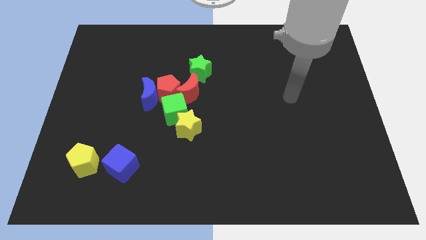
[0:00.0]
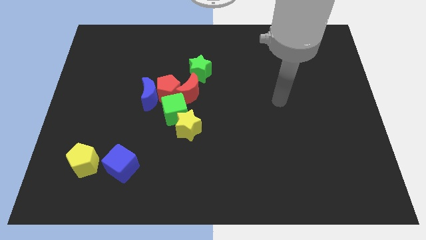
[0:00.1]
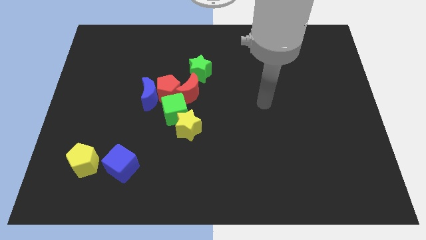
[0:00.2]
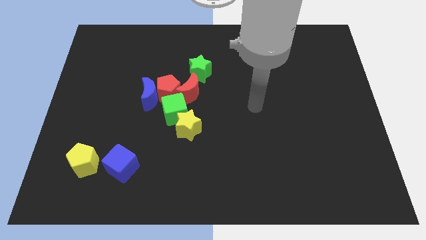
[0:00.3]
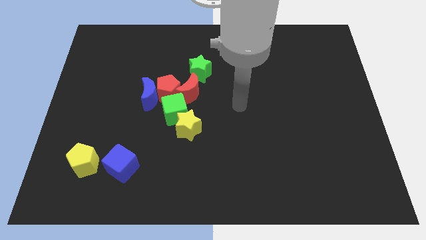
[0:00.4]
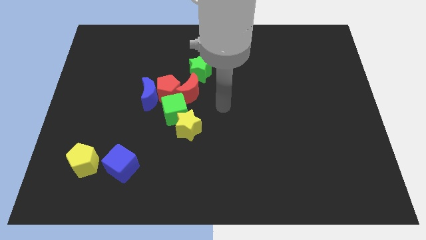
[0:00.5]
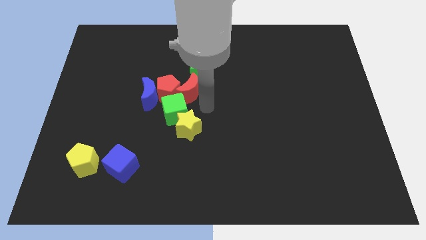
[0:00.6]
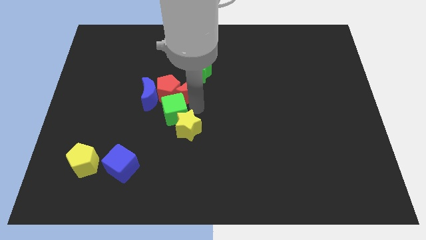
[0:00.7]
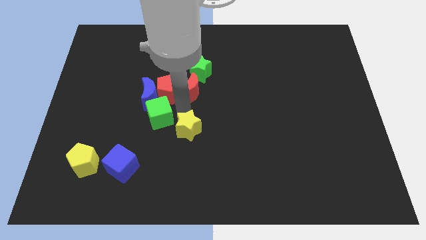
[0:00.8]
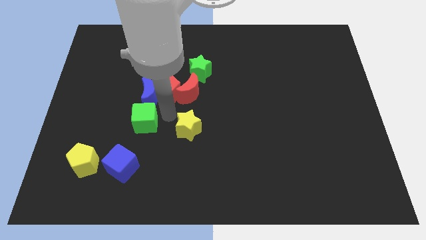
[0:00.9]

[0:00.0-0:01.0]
separate the yellow star from the green cube

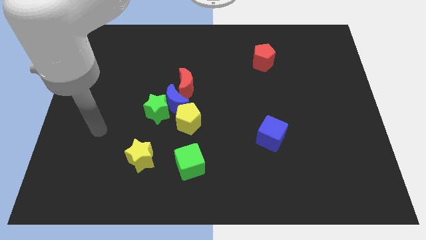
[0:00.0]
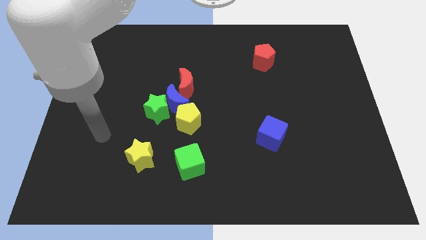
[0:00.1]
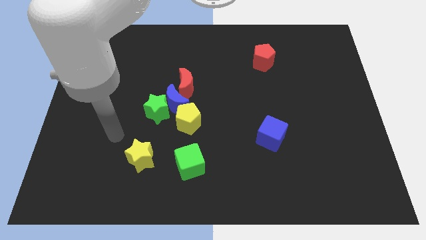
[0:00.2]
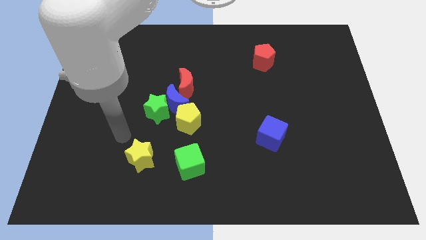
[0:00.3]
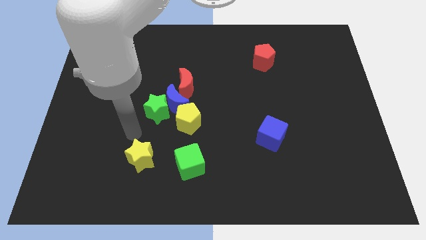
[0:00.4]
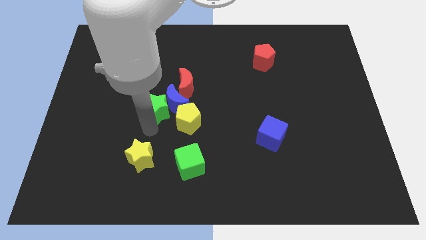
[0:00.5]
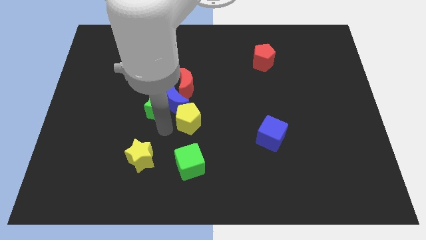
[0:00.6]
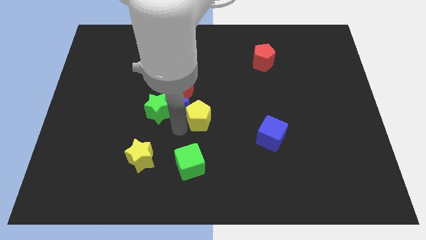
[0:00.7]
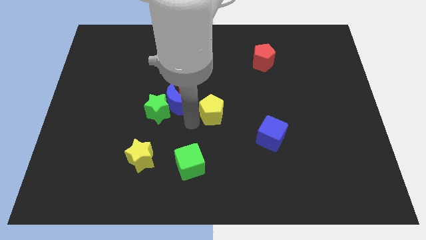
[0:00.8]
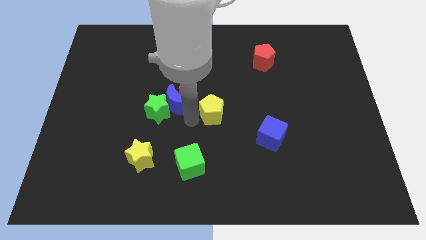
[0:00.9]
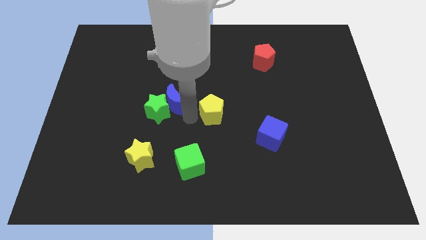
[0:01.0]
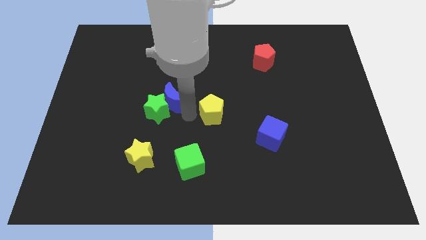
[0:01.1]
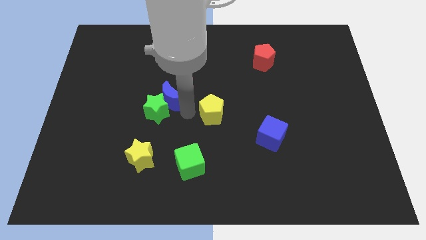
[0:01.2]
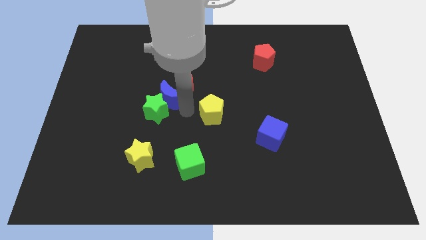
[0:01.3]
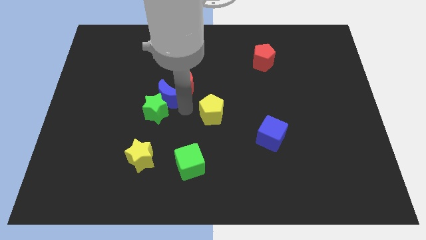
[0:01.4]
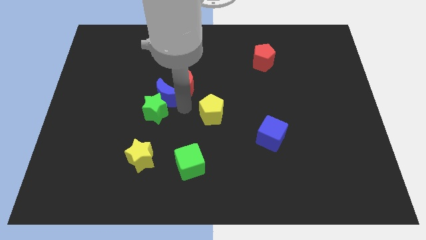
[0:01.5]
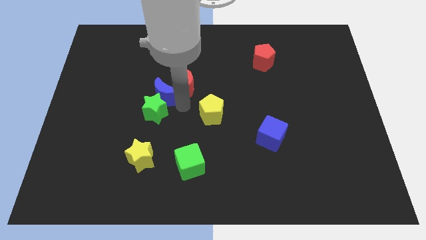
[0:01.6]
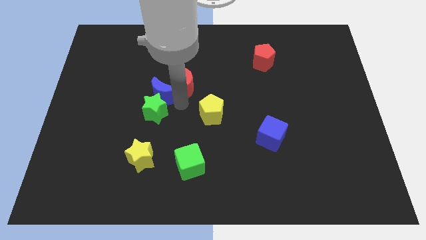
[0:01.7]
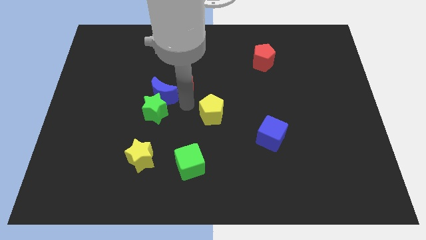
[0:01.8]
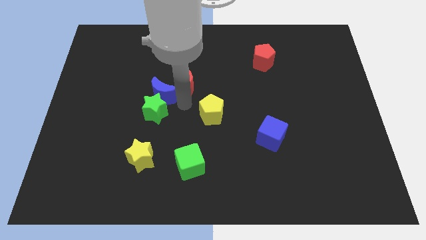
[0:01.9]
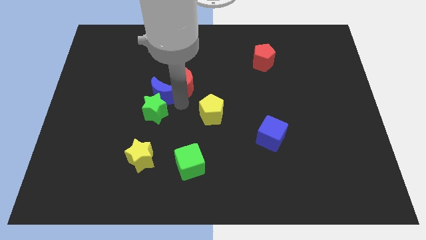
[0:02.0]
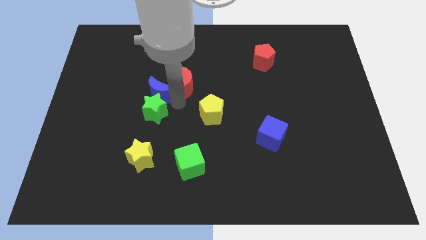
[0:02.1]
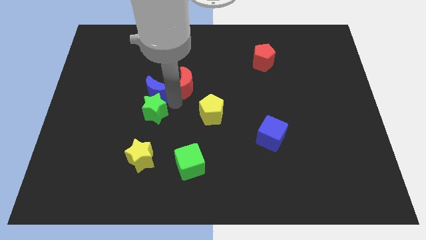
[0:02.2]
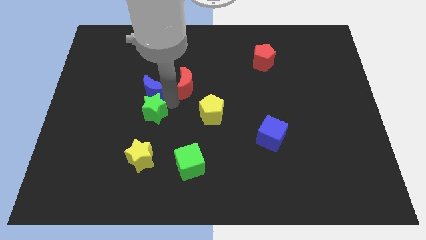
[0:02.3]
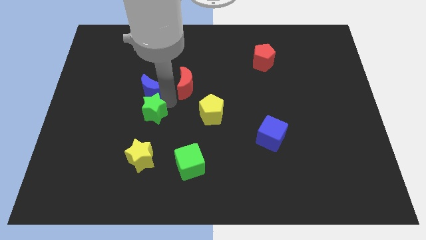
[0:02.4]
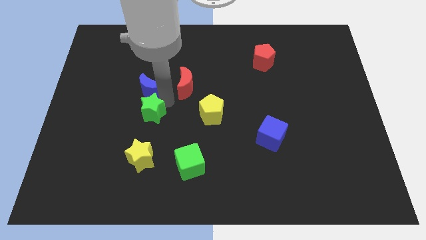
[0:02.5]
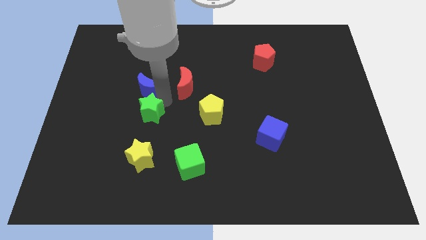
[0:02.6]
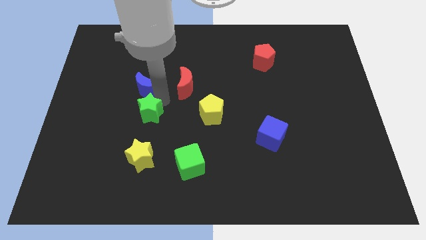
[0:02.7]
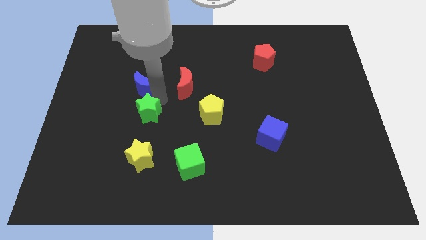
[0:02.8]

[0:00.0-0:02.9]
move the blue moon away from the clump

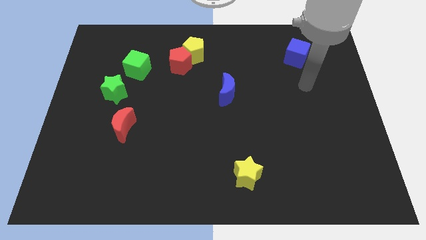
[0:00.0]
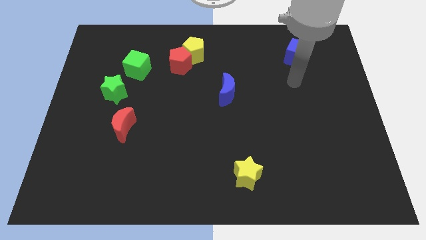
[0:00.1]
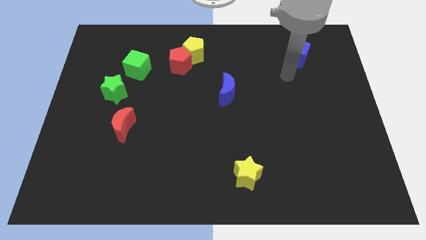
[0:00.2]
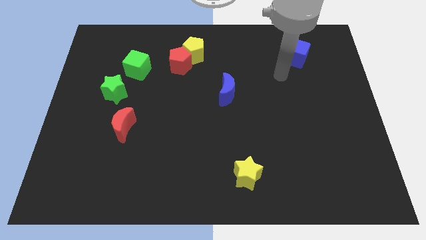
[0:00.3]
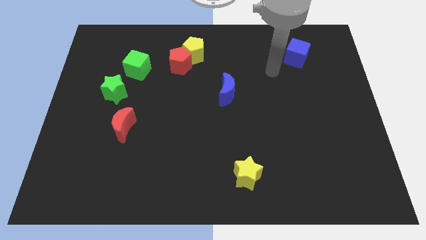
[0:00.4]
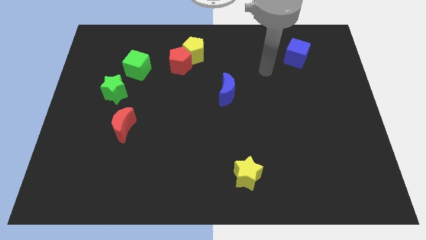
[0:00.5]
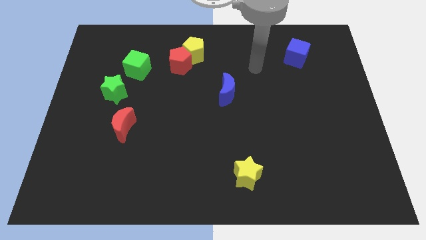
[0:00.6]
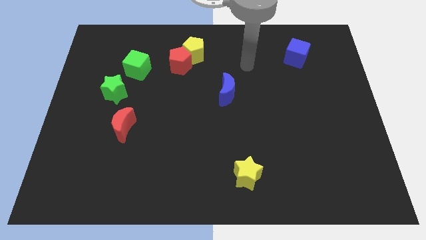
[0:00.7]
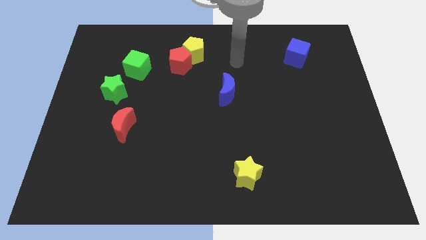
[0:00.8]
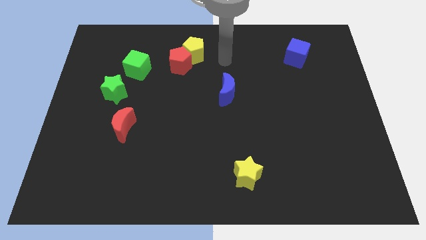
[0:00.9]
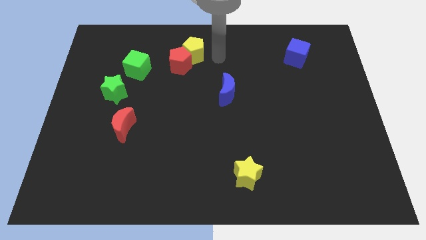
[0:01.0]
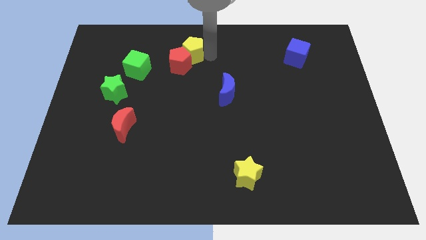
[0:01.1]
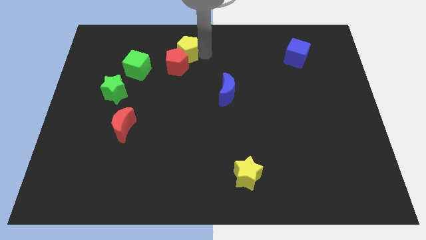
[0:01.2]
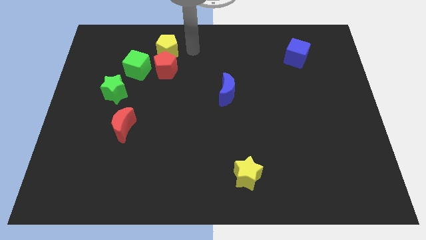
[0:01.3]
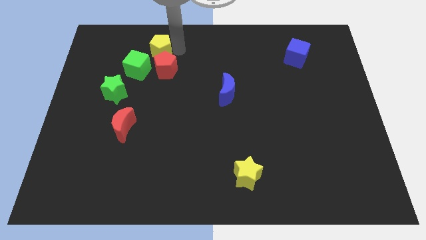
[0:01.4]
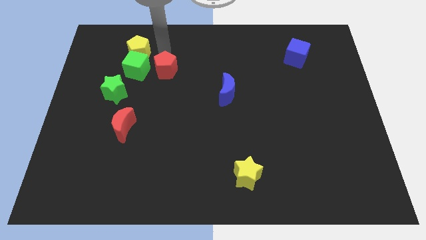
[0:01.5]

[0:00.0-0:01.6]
pull the red pentagon apart from the yellow pentagon

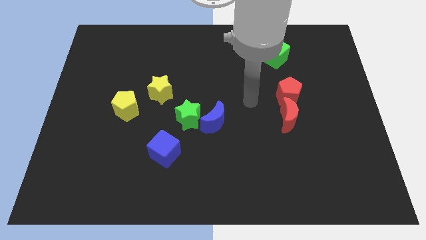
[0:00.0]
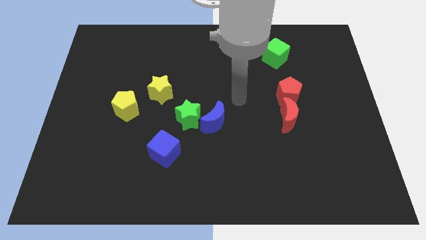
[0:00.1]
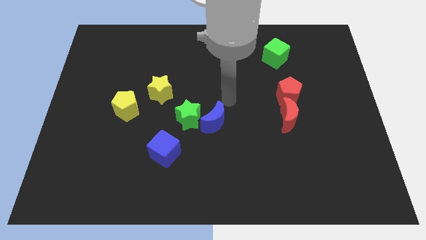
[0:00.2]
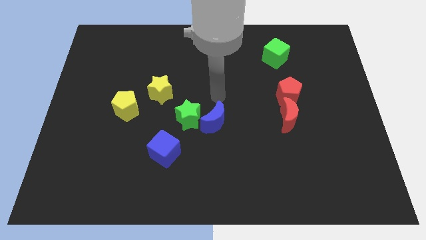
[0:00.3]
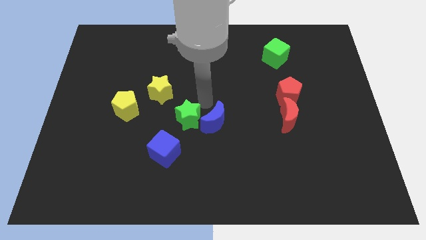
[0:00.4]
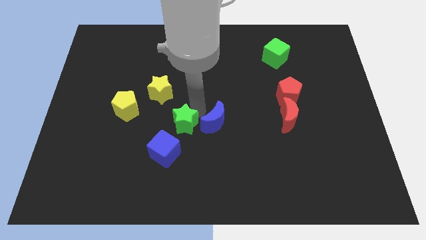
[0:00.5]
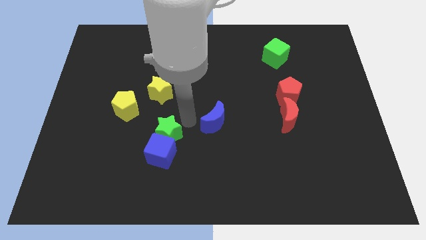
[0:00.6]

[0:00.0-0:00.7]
separate the blue moon from the green star

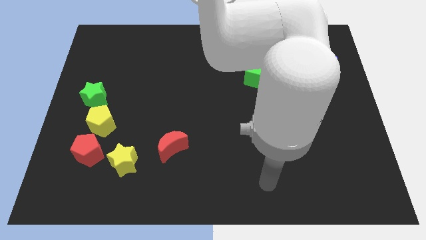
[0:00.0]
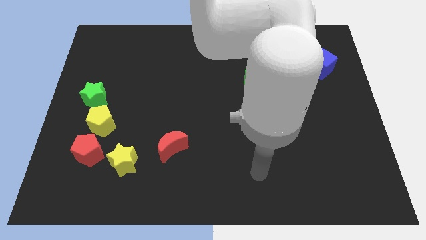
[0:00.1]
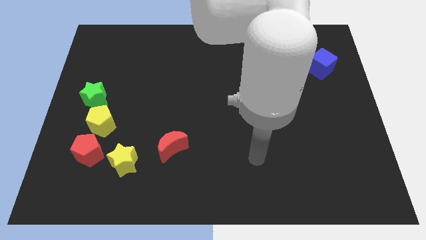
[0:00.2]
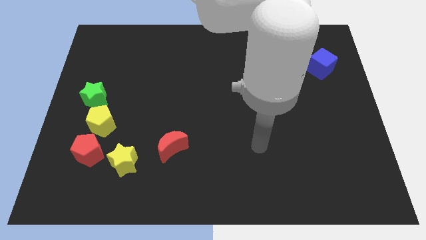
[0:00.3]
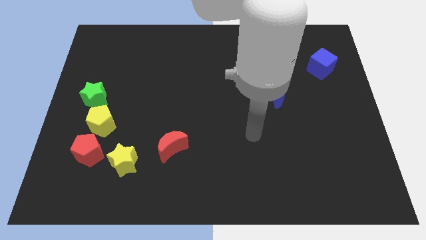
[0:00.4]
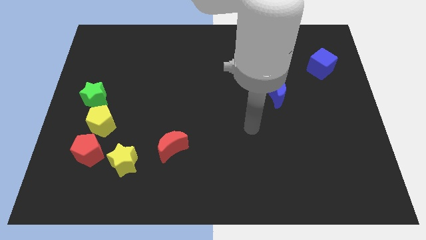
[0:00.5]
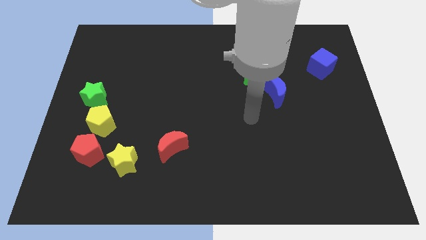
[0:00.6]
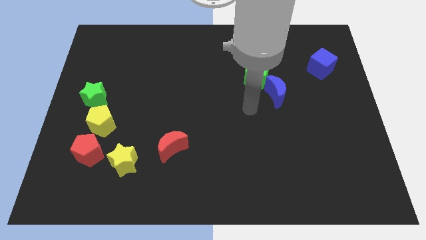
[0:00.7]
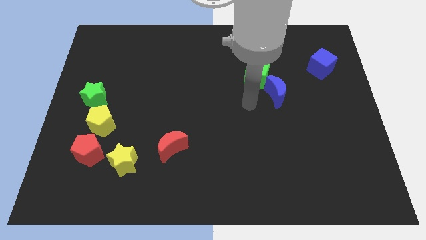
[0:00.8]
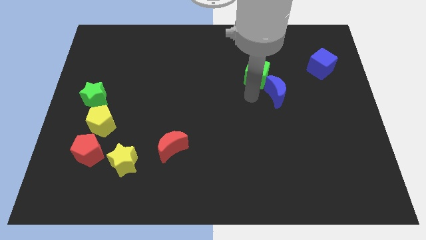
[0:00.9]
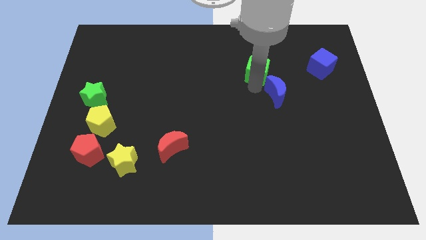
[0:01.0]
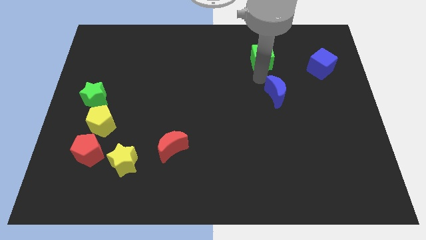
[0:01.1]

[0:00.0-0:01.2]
separate the blue moon from the green cube

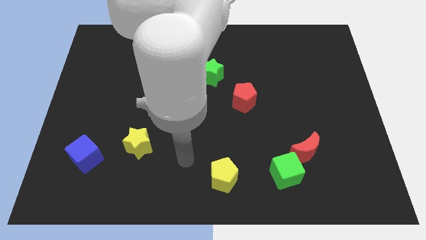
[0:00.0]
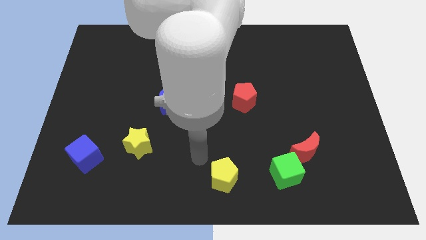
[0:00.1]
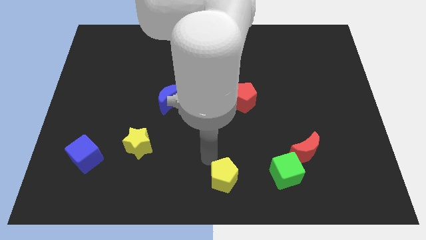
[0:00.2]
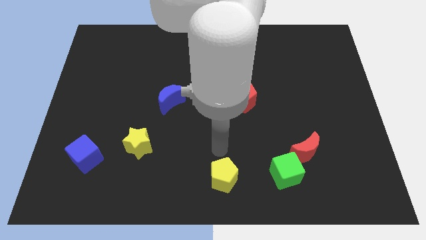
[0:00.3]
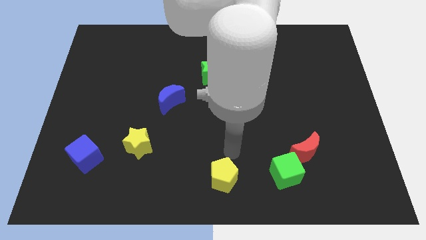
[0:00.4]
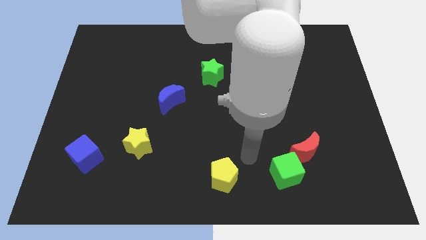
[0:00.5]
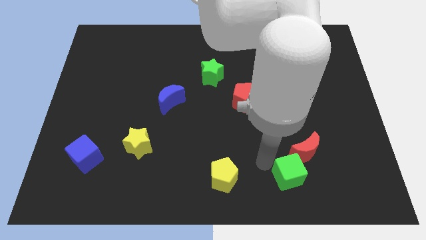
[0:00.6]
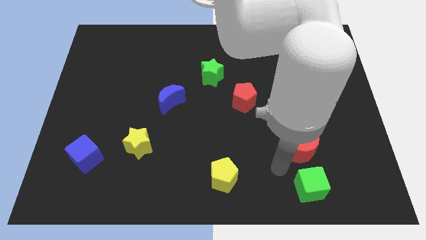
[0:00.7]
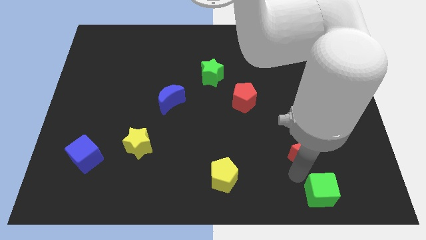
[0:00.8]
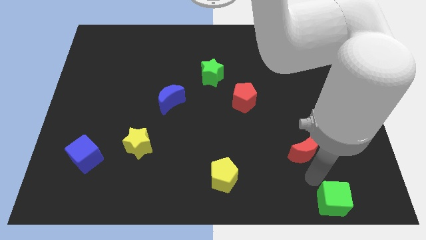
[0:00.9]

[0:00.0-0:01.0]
pull the red moon apart from the green cube

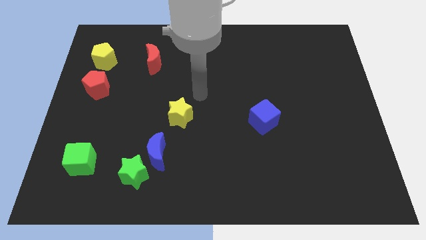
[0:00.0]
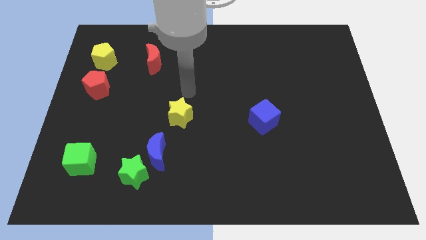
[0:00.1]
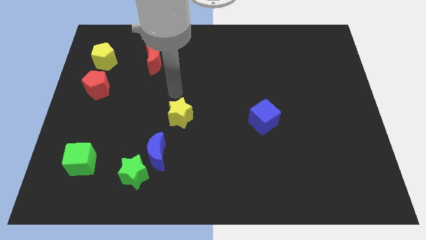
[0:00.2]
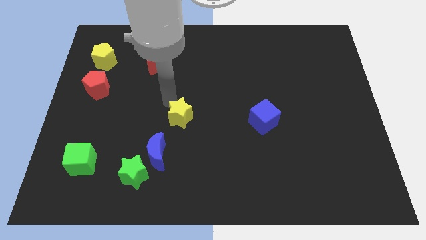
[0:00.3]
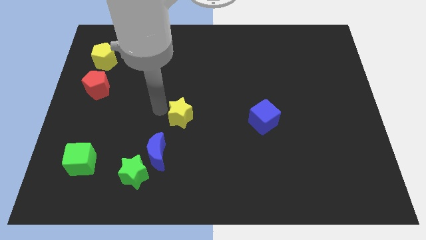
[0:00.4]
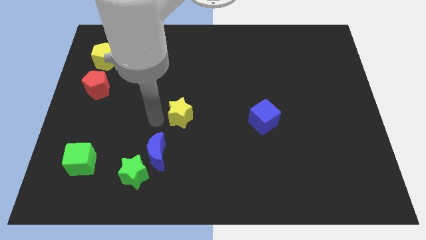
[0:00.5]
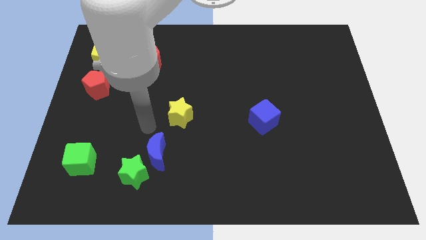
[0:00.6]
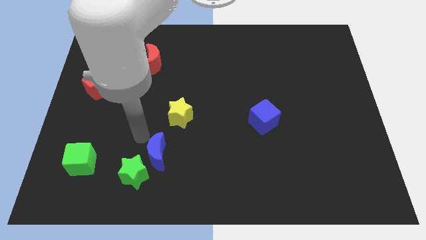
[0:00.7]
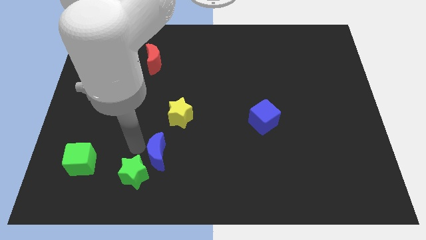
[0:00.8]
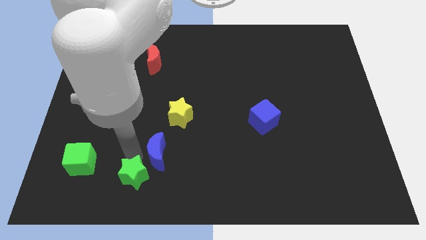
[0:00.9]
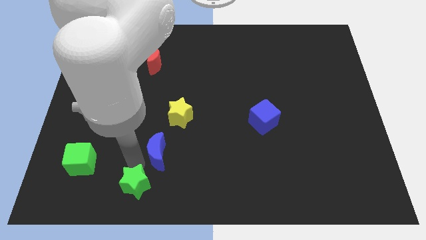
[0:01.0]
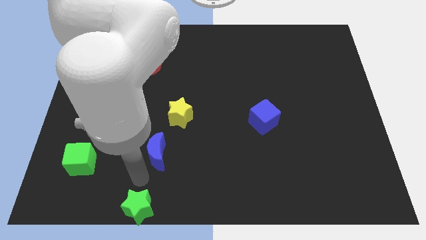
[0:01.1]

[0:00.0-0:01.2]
pull the blue moon apart from the green star
